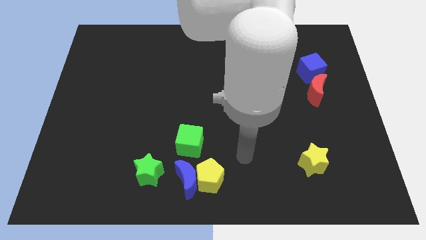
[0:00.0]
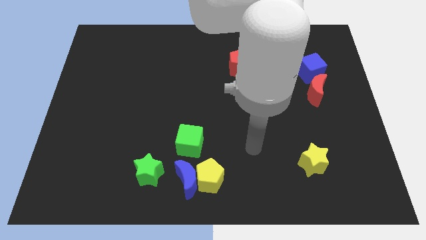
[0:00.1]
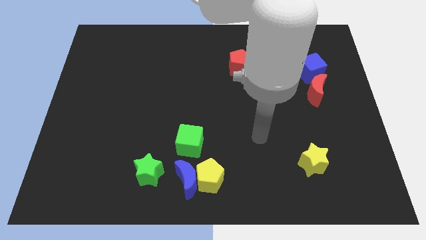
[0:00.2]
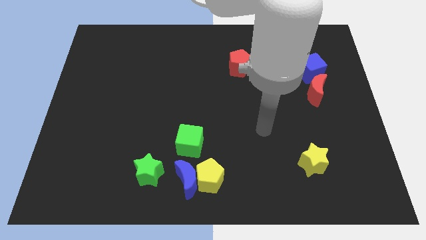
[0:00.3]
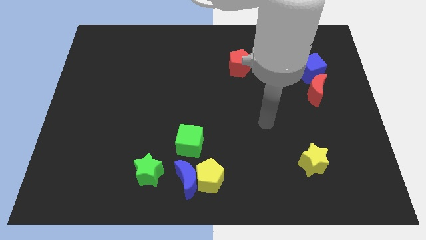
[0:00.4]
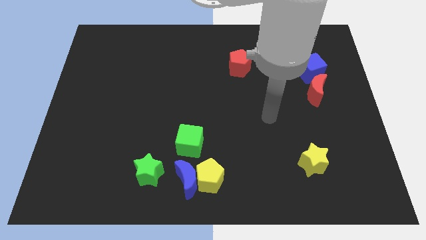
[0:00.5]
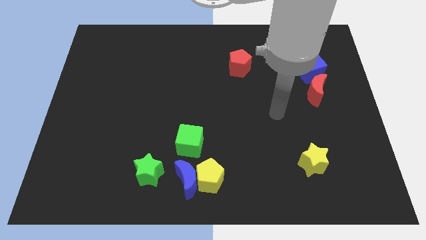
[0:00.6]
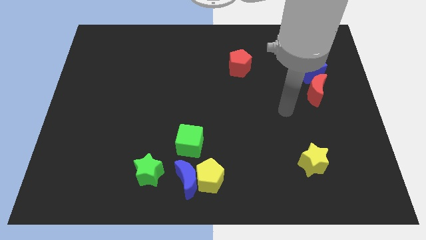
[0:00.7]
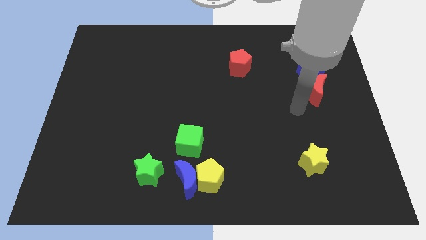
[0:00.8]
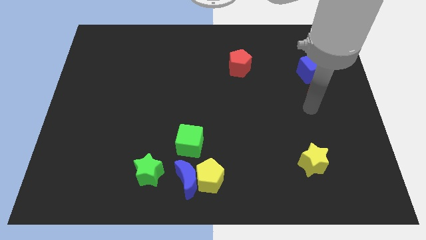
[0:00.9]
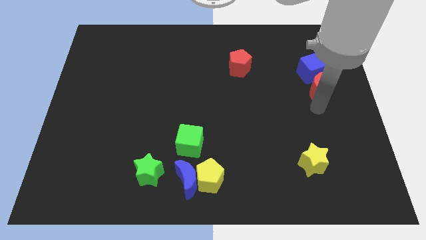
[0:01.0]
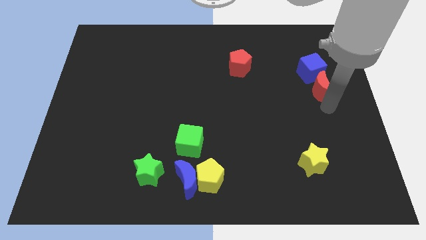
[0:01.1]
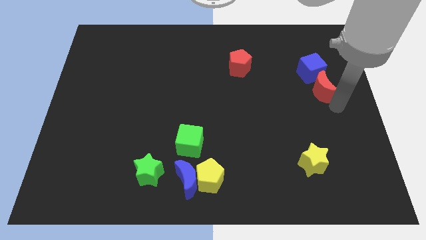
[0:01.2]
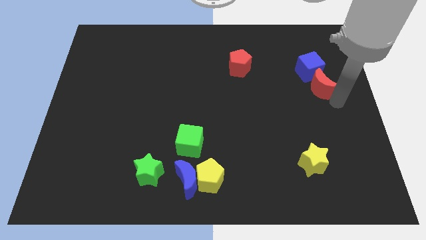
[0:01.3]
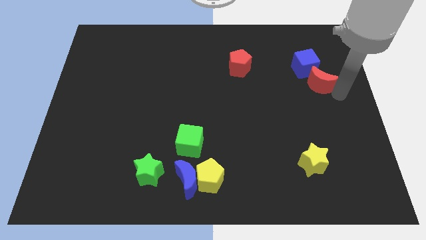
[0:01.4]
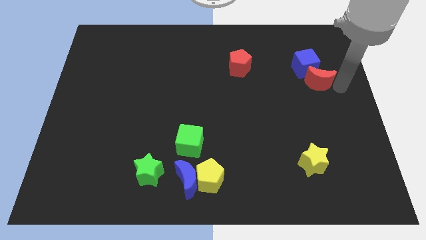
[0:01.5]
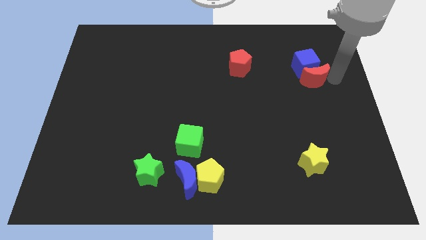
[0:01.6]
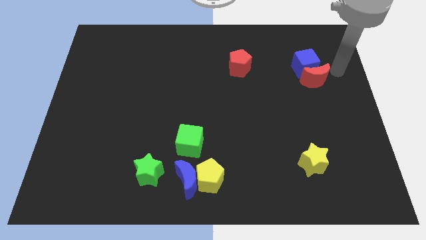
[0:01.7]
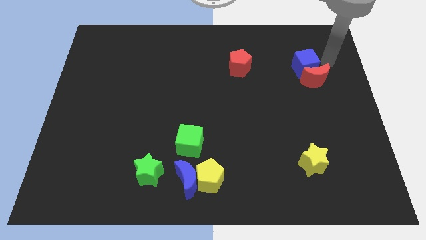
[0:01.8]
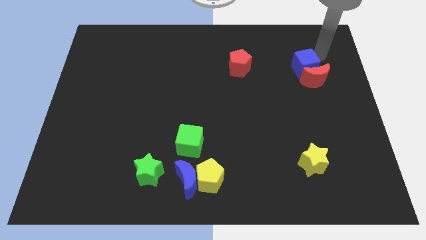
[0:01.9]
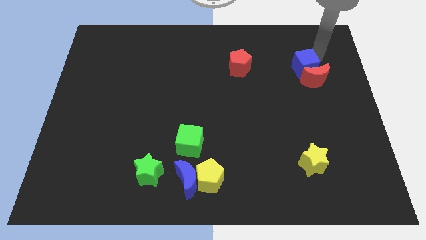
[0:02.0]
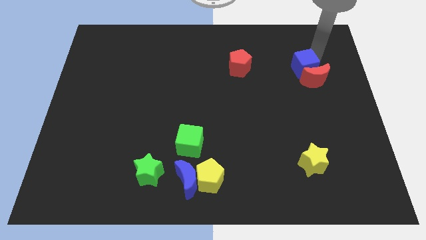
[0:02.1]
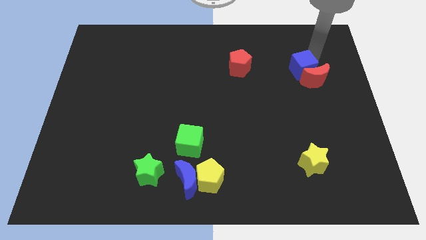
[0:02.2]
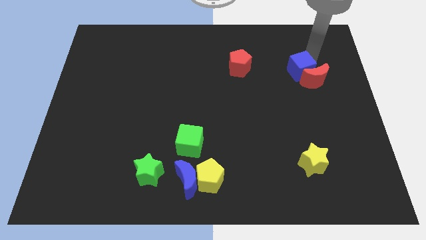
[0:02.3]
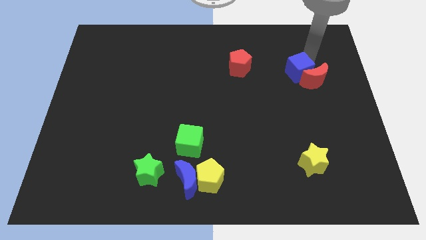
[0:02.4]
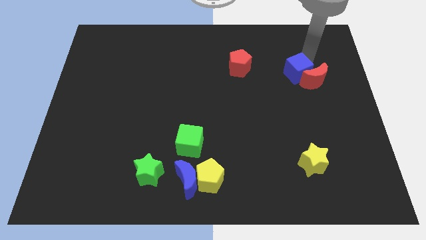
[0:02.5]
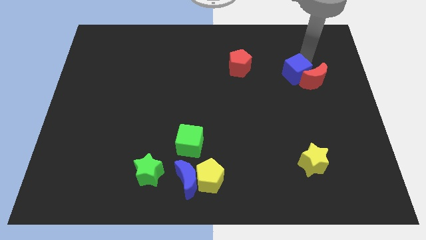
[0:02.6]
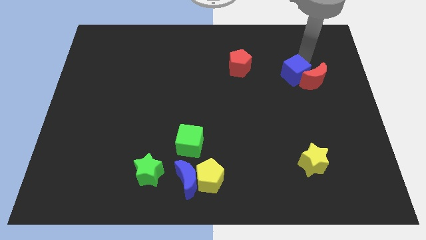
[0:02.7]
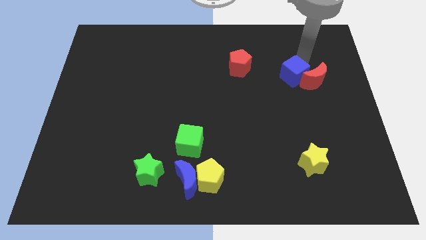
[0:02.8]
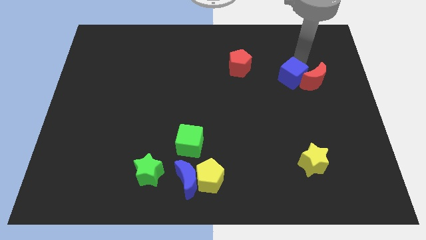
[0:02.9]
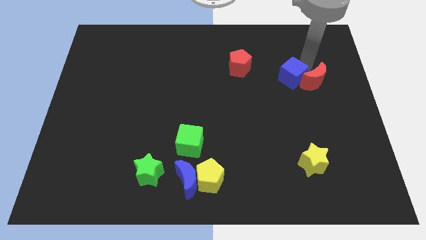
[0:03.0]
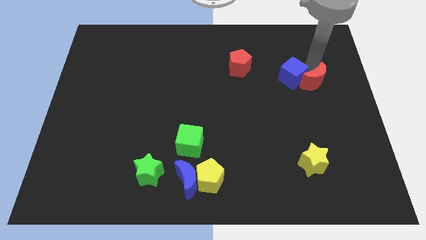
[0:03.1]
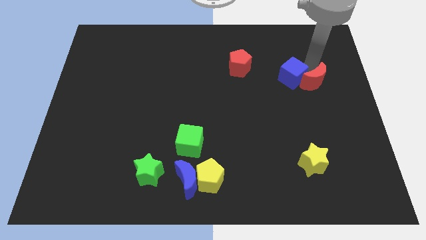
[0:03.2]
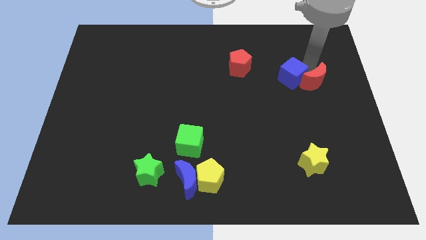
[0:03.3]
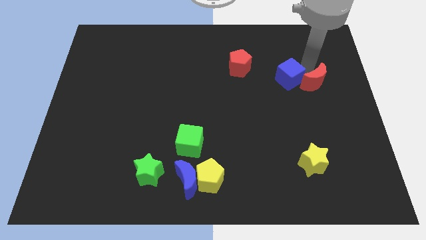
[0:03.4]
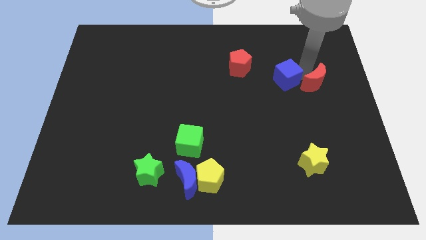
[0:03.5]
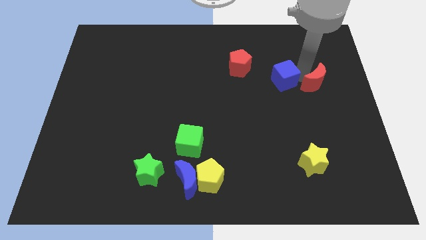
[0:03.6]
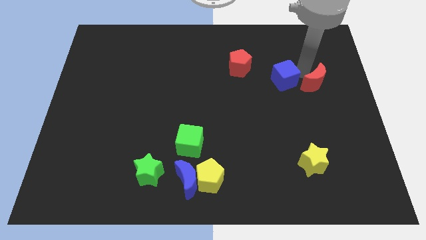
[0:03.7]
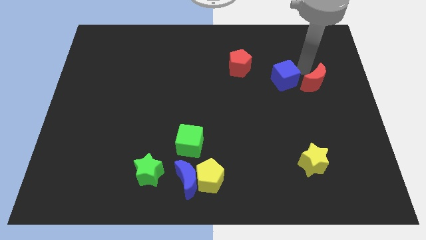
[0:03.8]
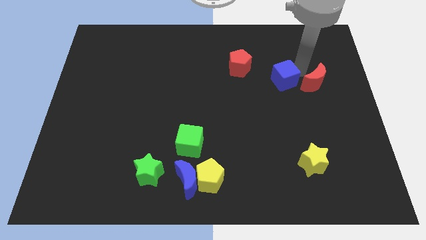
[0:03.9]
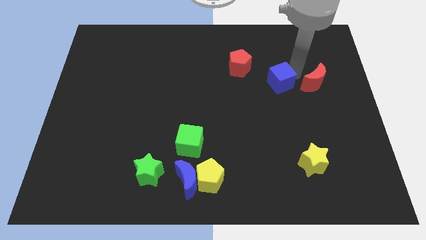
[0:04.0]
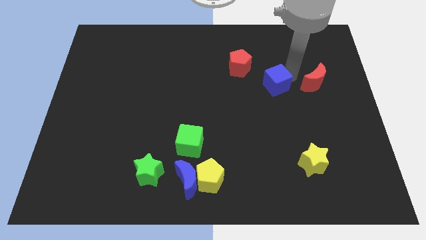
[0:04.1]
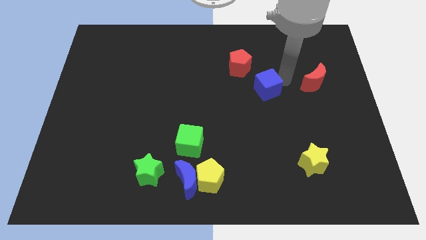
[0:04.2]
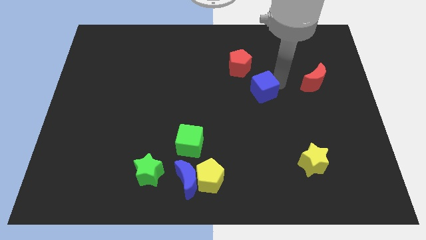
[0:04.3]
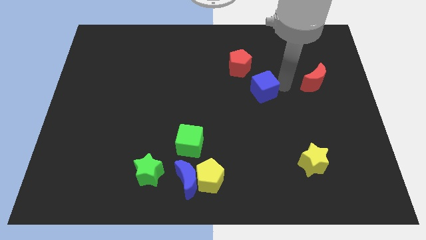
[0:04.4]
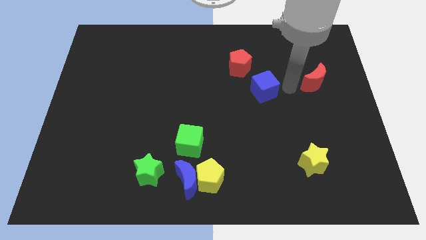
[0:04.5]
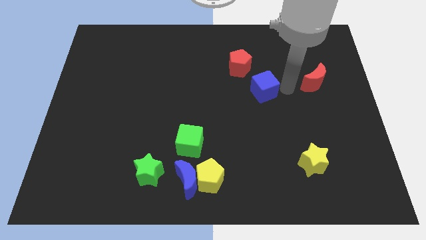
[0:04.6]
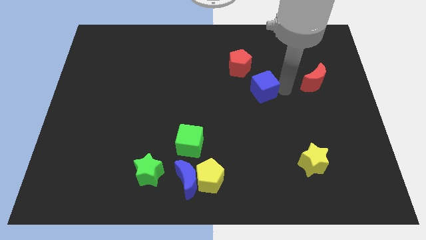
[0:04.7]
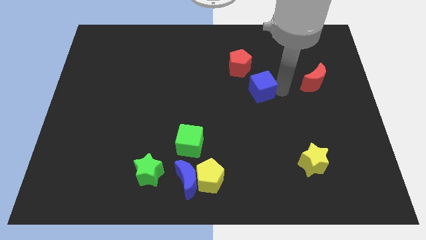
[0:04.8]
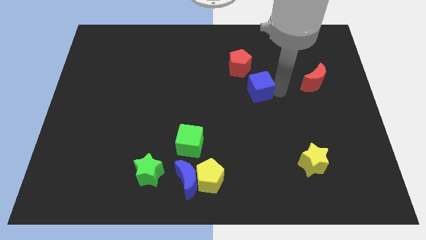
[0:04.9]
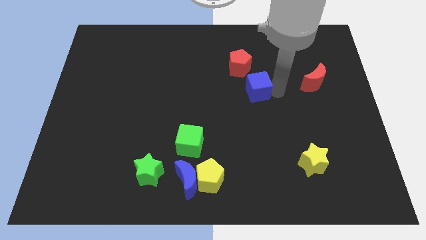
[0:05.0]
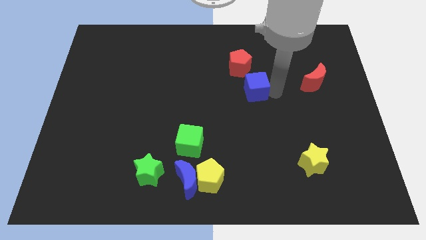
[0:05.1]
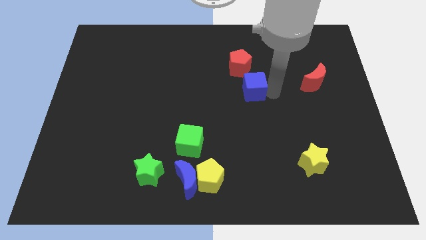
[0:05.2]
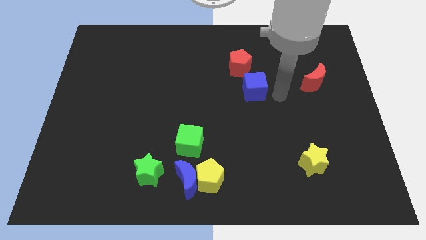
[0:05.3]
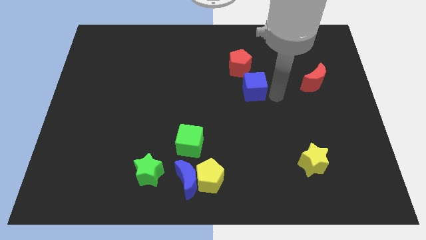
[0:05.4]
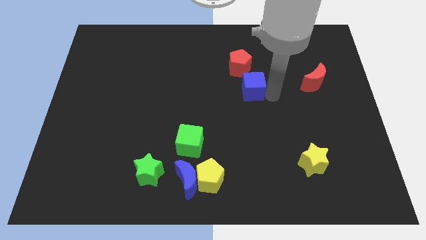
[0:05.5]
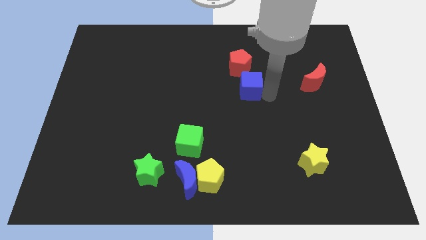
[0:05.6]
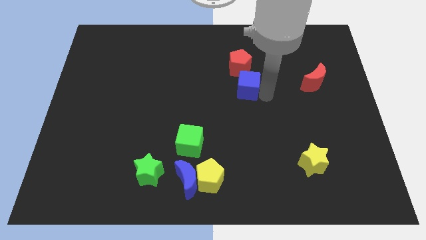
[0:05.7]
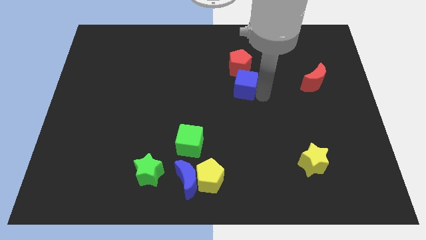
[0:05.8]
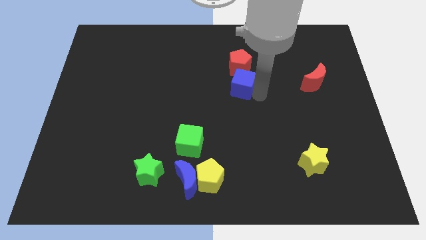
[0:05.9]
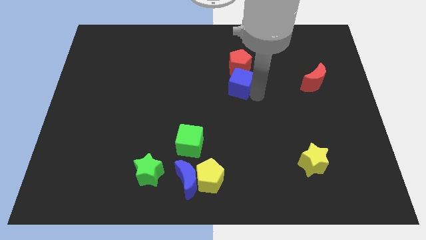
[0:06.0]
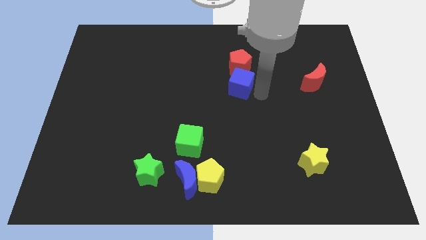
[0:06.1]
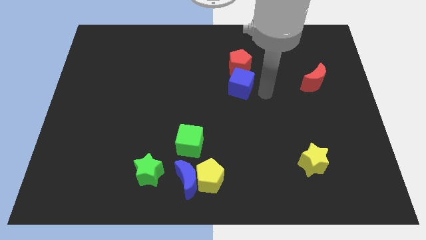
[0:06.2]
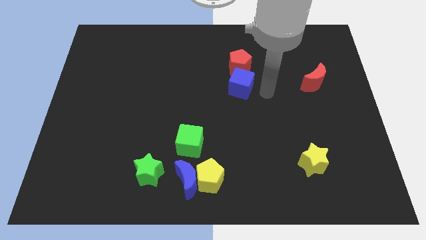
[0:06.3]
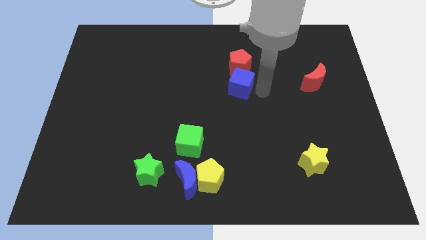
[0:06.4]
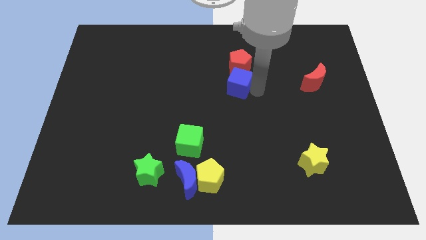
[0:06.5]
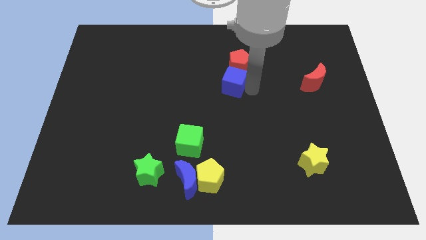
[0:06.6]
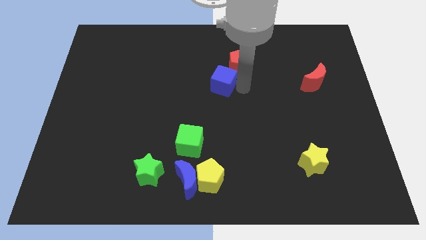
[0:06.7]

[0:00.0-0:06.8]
slide the blue cube to the left

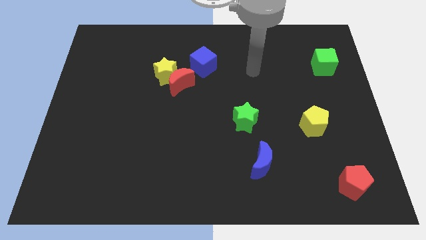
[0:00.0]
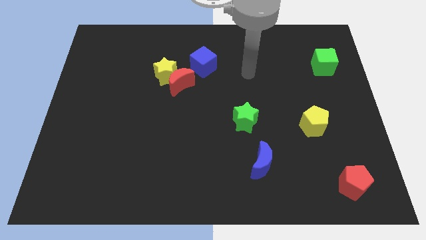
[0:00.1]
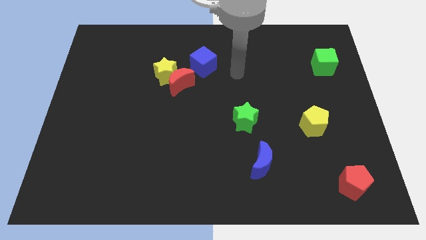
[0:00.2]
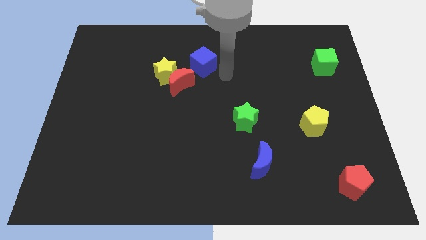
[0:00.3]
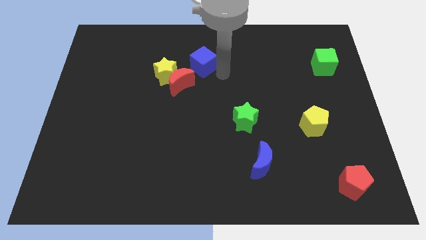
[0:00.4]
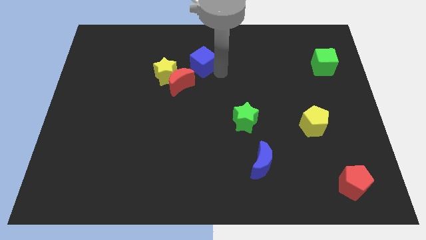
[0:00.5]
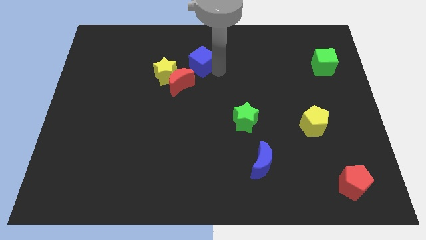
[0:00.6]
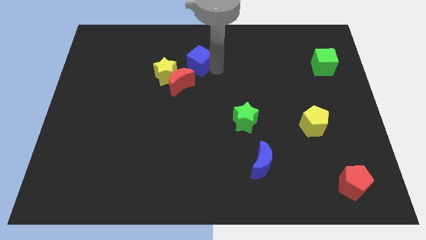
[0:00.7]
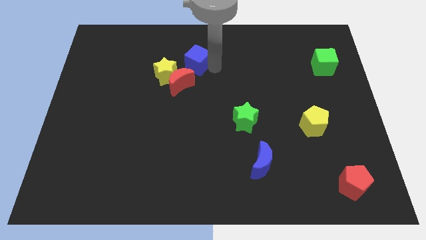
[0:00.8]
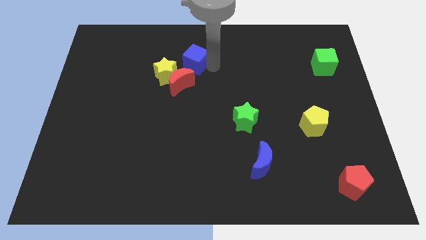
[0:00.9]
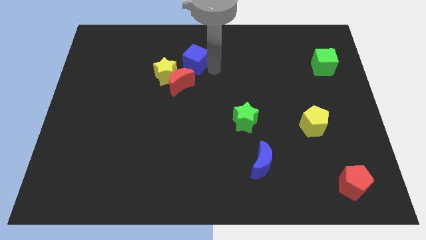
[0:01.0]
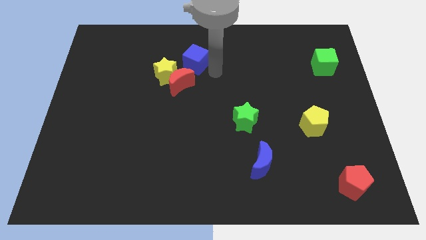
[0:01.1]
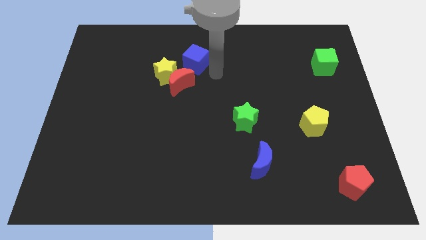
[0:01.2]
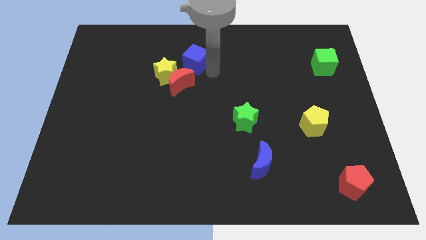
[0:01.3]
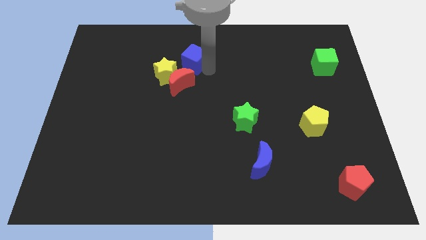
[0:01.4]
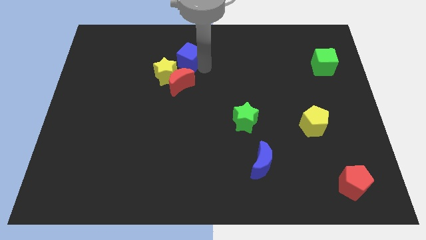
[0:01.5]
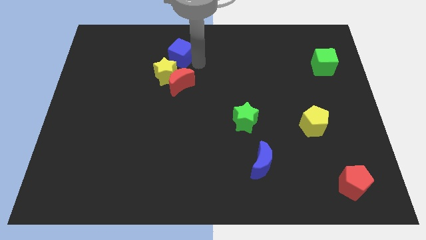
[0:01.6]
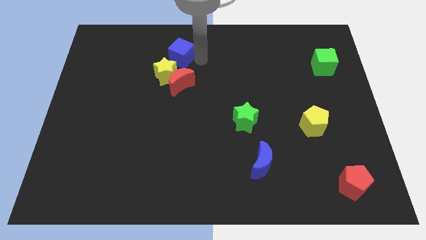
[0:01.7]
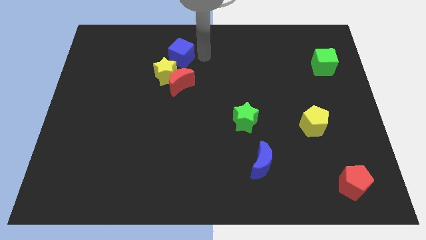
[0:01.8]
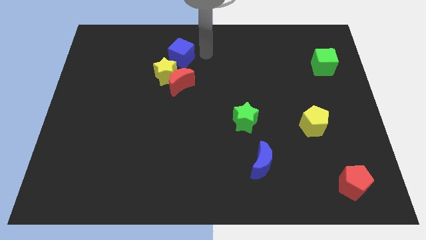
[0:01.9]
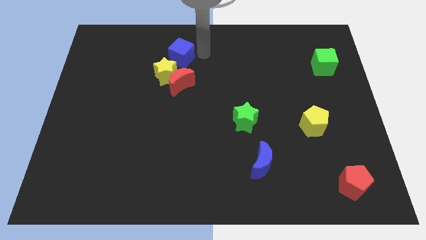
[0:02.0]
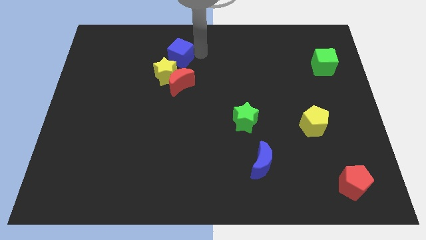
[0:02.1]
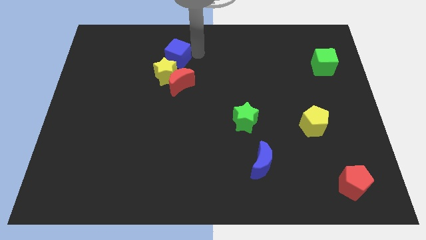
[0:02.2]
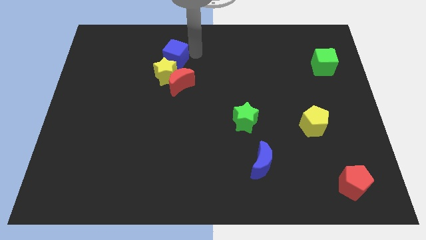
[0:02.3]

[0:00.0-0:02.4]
slide the blue cube to the left a little
